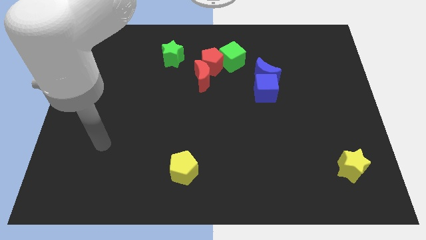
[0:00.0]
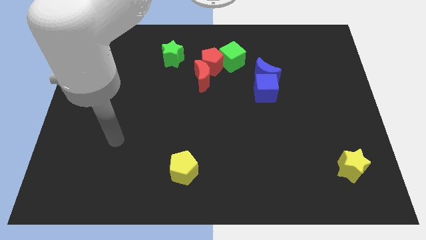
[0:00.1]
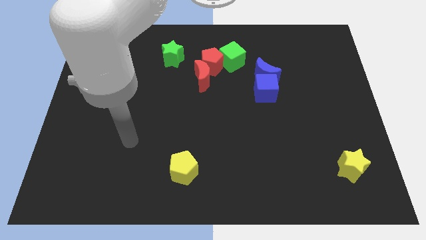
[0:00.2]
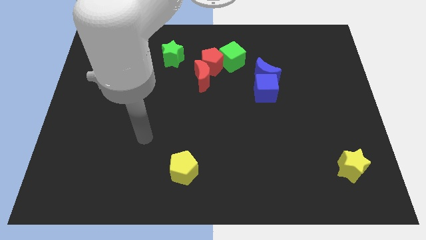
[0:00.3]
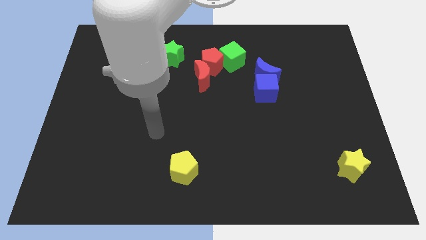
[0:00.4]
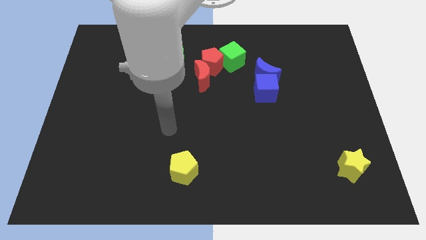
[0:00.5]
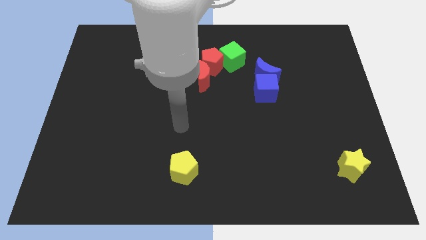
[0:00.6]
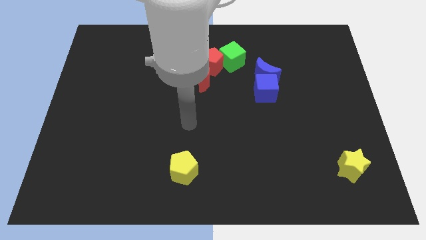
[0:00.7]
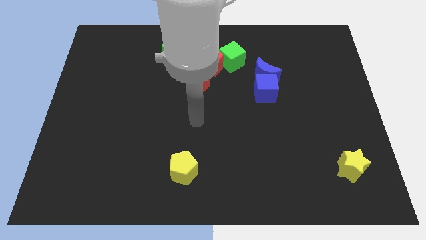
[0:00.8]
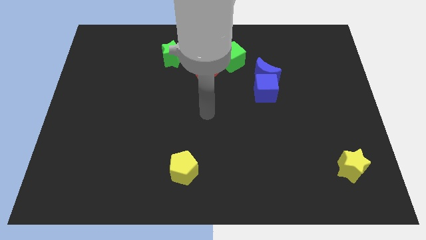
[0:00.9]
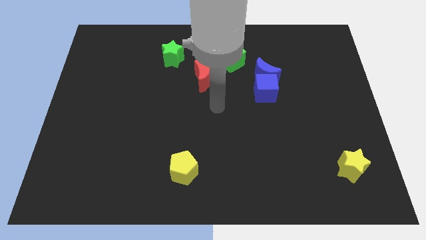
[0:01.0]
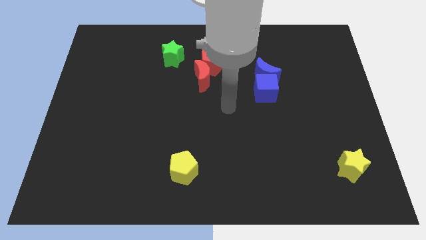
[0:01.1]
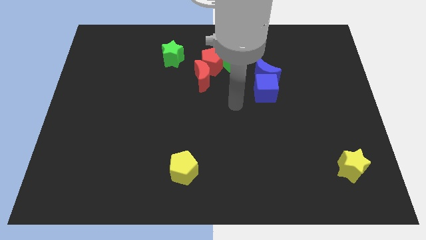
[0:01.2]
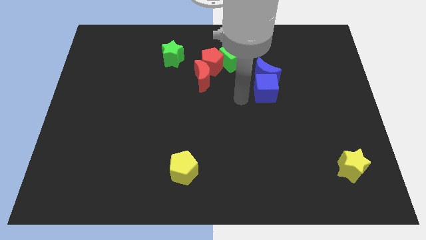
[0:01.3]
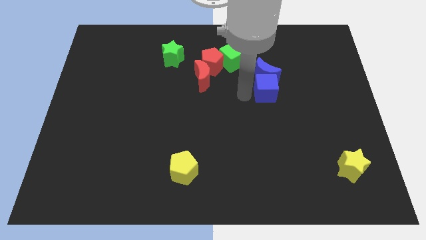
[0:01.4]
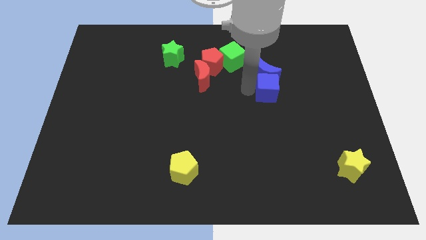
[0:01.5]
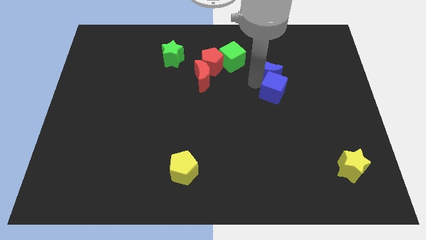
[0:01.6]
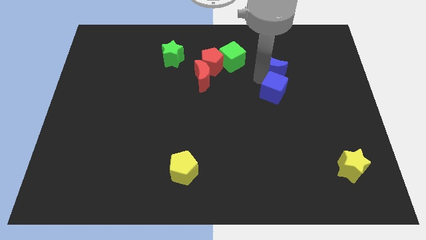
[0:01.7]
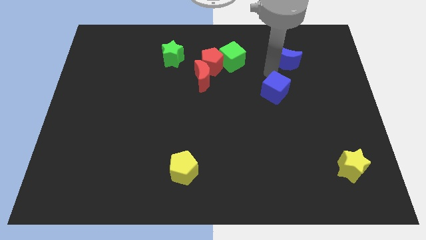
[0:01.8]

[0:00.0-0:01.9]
separate the blue cube from the blue moon

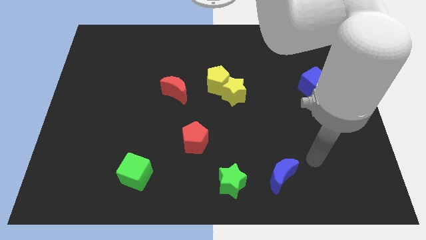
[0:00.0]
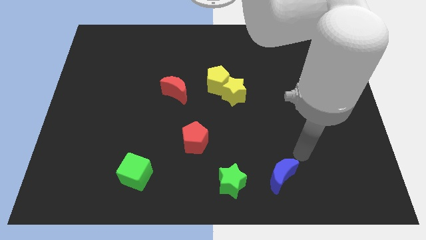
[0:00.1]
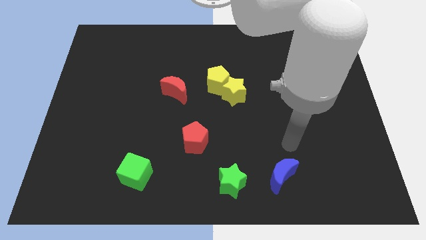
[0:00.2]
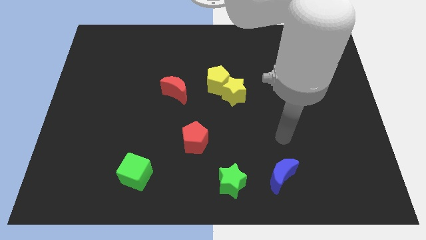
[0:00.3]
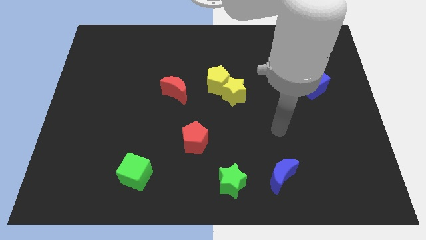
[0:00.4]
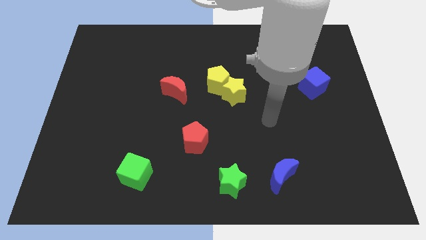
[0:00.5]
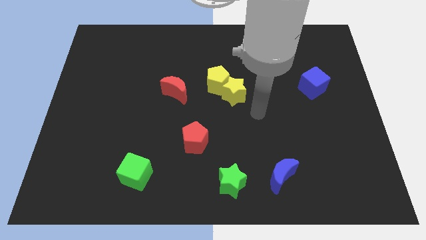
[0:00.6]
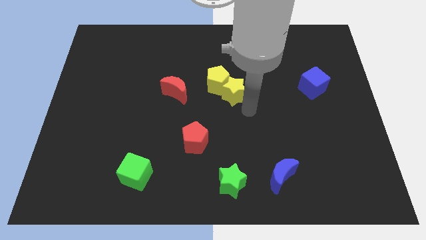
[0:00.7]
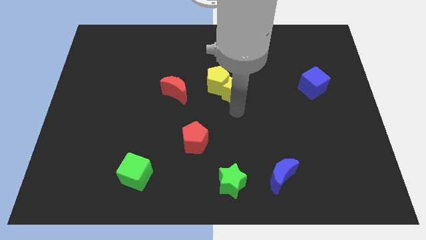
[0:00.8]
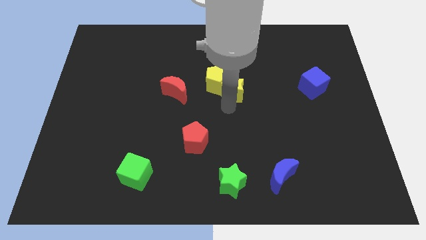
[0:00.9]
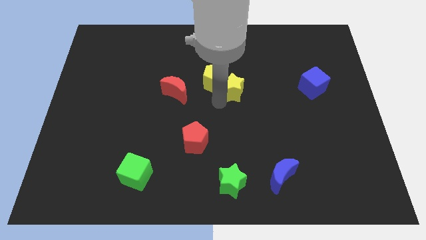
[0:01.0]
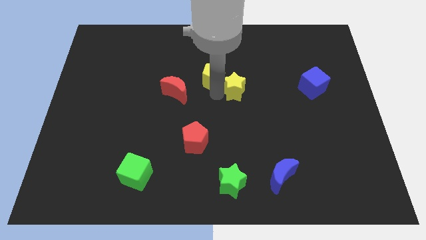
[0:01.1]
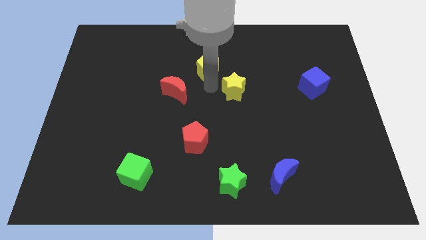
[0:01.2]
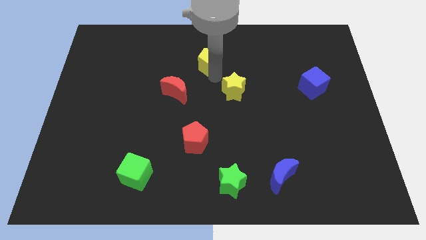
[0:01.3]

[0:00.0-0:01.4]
separate the yellow star from the yellow pentagon

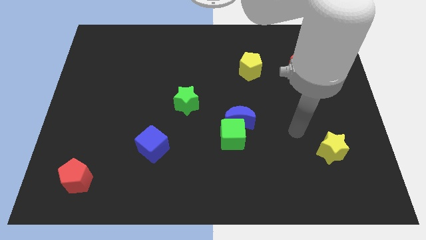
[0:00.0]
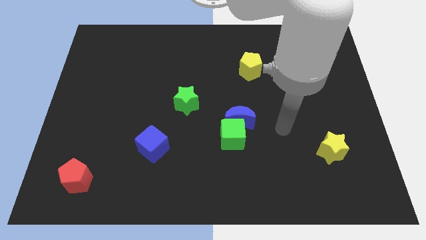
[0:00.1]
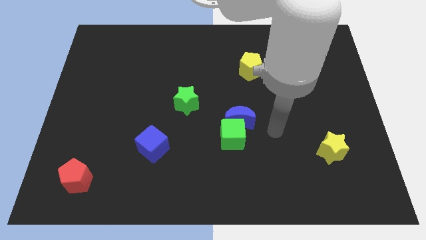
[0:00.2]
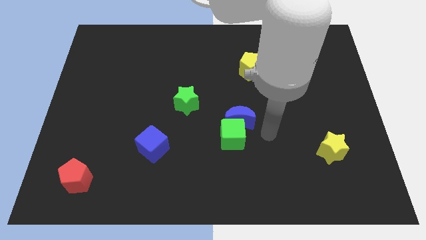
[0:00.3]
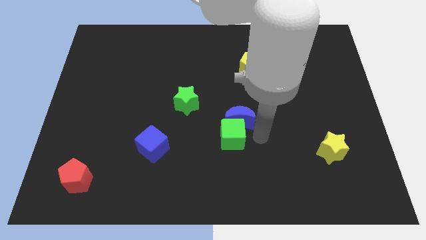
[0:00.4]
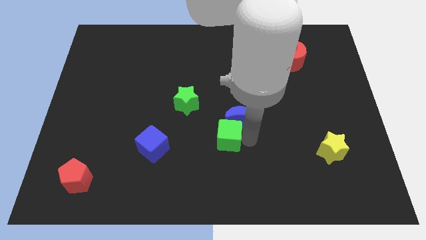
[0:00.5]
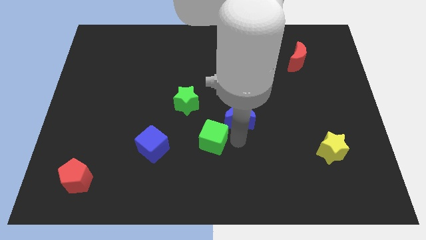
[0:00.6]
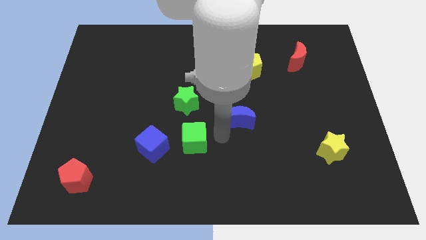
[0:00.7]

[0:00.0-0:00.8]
move the blue moon away from the green cube

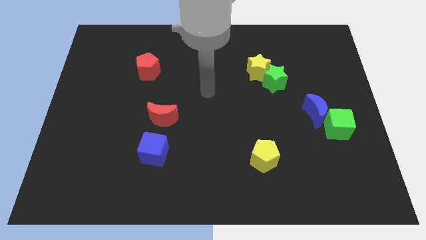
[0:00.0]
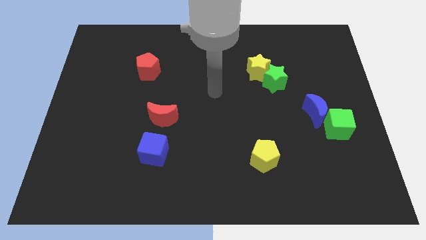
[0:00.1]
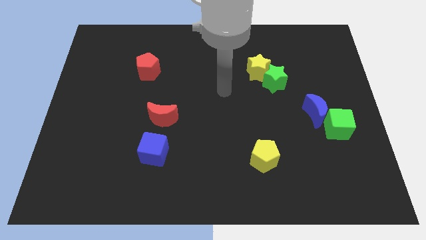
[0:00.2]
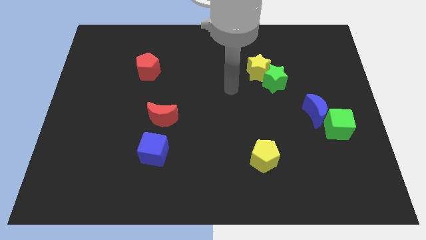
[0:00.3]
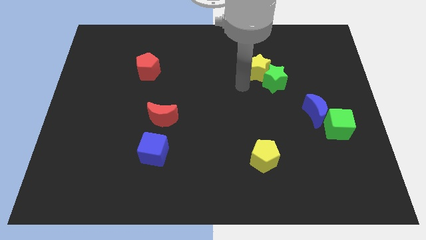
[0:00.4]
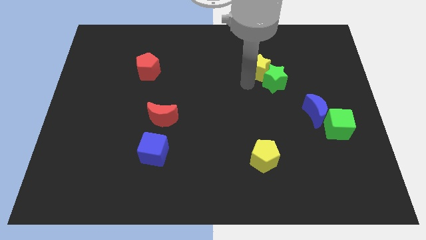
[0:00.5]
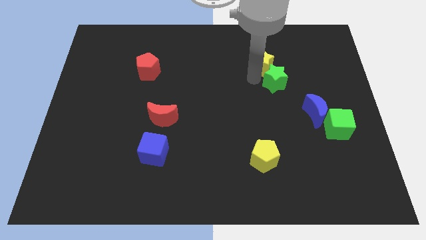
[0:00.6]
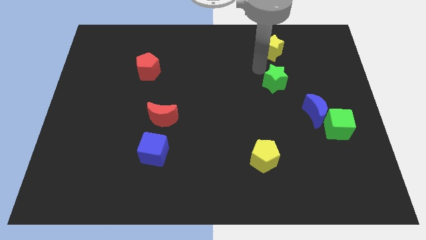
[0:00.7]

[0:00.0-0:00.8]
separate the green star from the yellow star

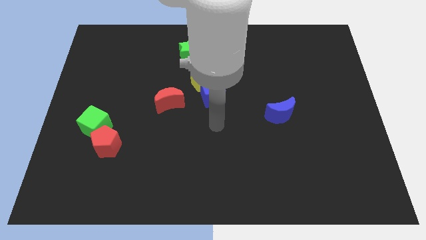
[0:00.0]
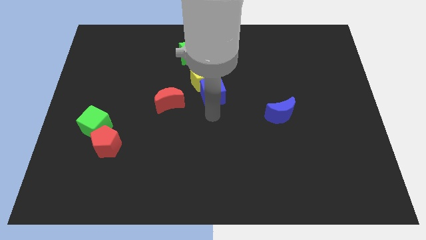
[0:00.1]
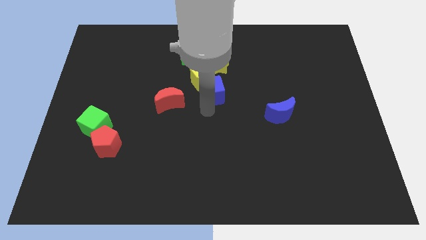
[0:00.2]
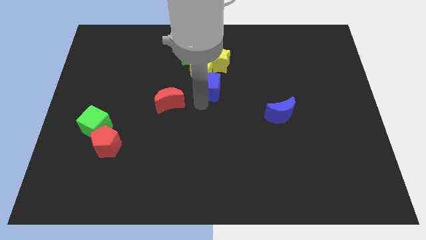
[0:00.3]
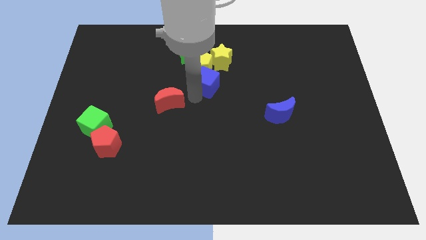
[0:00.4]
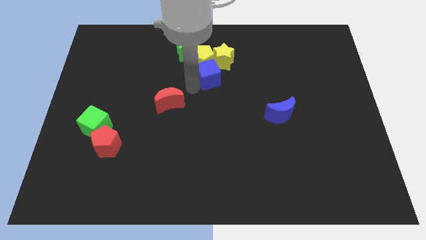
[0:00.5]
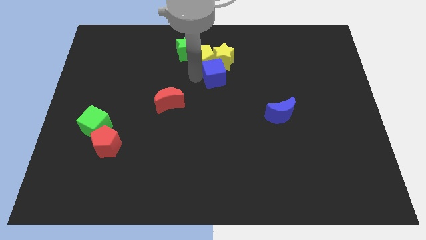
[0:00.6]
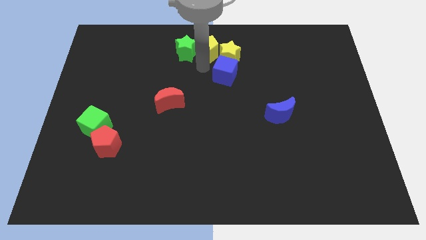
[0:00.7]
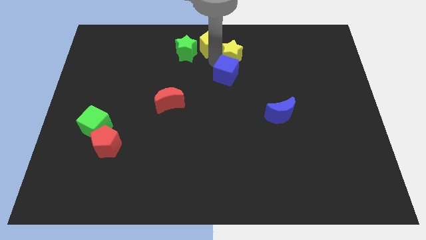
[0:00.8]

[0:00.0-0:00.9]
separate the blue cube from the yellow pentagon

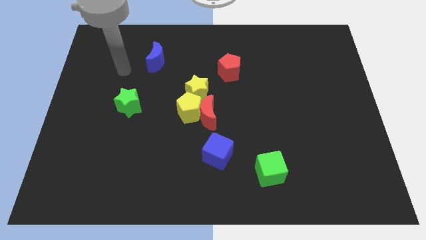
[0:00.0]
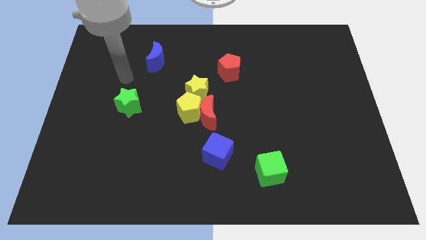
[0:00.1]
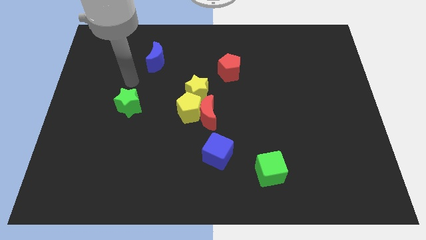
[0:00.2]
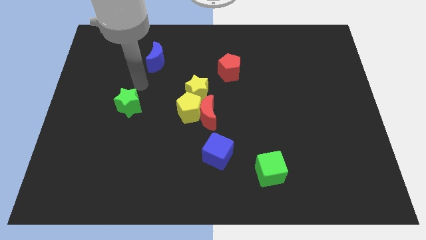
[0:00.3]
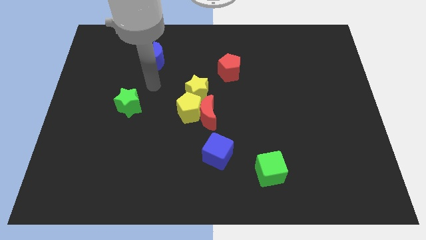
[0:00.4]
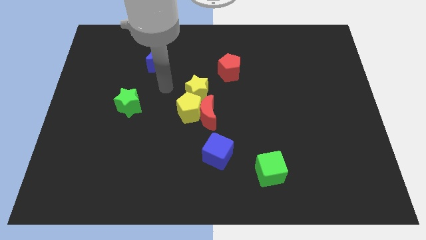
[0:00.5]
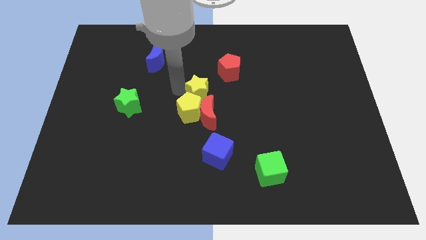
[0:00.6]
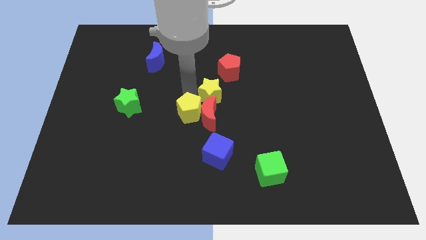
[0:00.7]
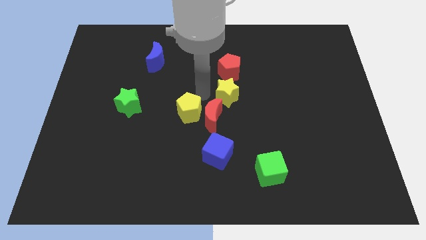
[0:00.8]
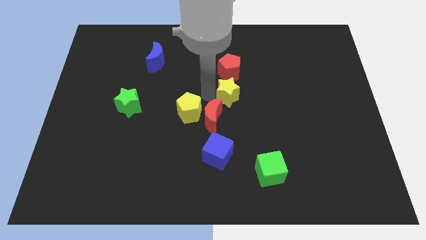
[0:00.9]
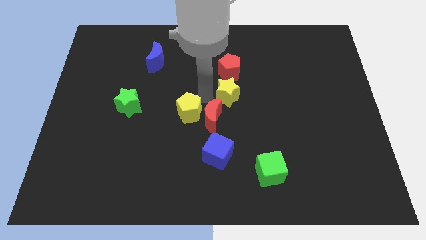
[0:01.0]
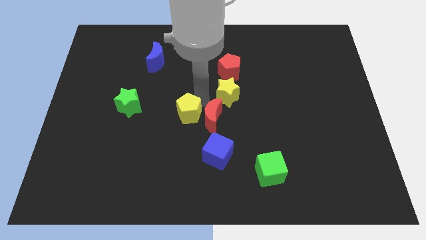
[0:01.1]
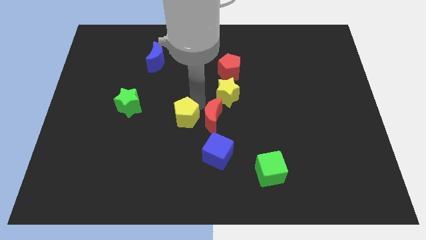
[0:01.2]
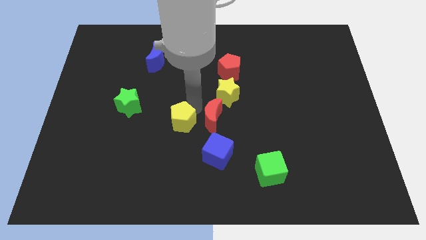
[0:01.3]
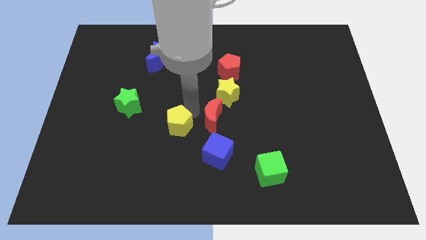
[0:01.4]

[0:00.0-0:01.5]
move the yellow pentagon away from the red moon and yellow star

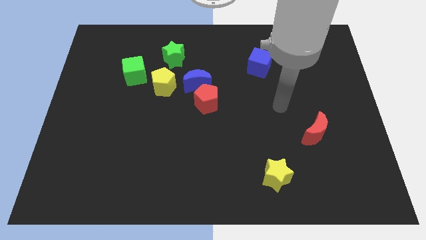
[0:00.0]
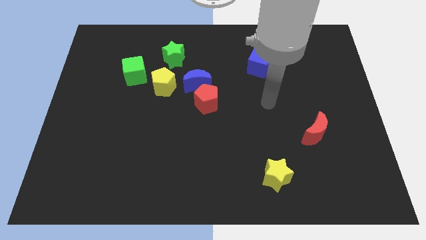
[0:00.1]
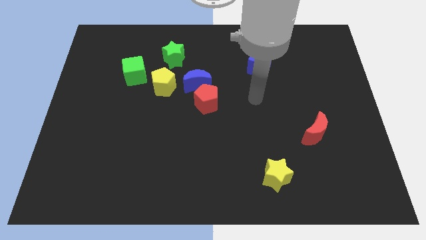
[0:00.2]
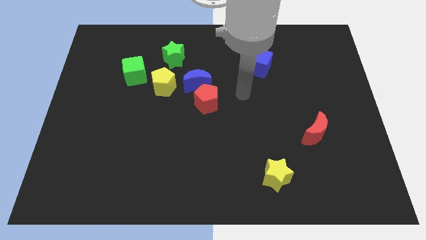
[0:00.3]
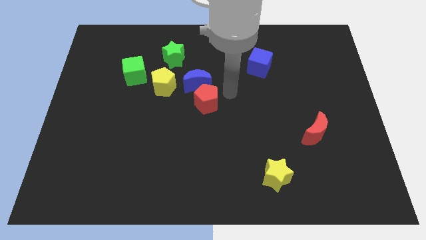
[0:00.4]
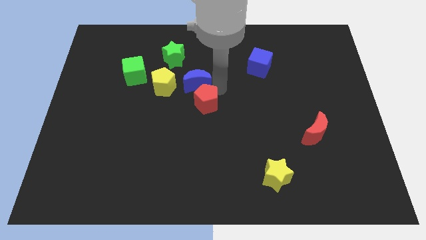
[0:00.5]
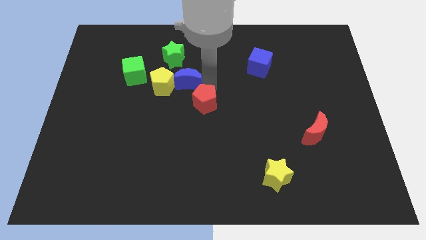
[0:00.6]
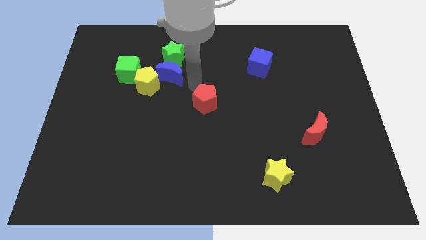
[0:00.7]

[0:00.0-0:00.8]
move the red pentagon away from the blue moon

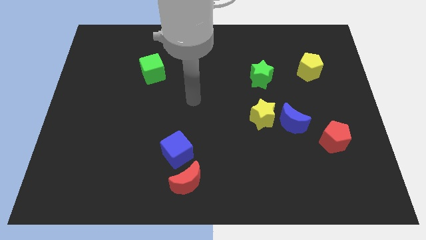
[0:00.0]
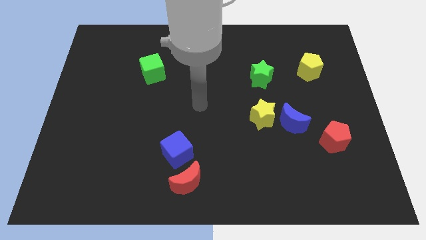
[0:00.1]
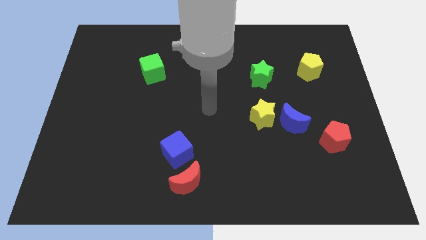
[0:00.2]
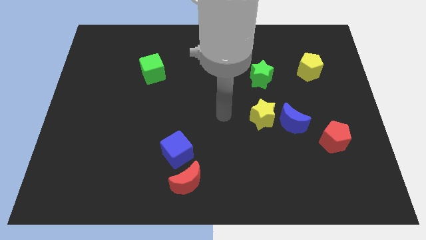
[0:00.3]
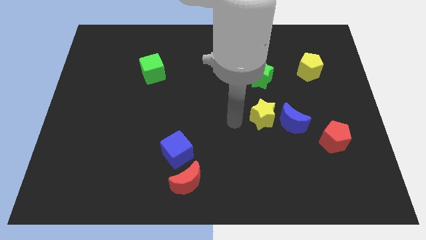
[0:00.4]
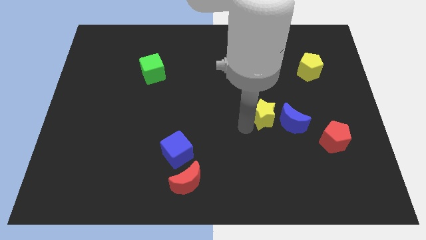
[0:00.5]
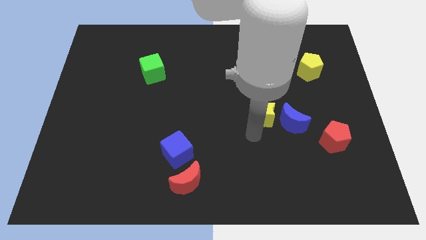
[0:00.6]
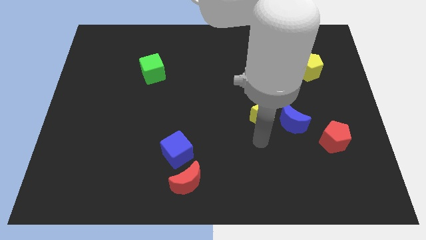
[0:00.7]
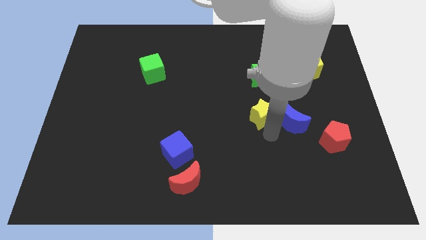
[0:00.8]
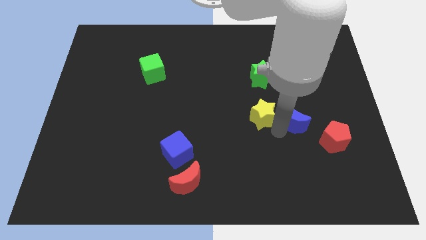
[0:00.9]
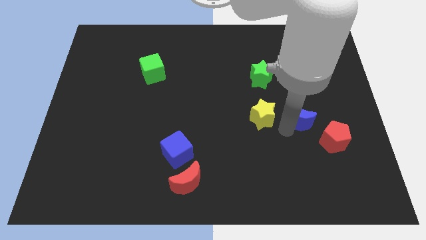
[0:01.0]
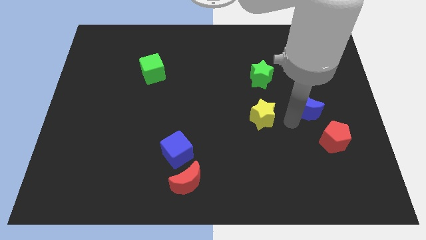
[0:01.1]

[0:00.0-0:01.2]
separate the yellow star from the blue moon
